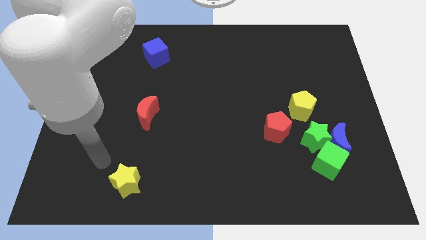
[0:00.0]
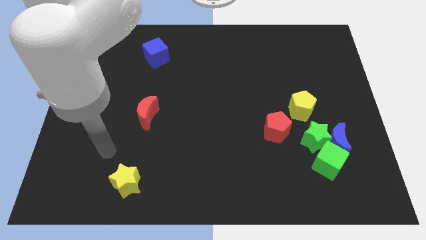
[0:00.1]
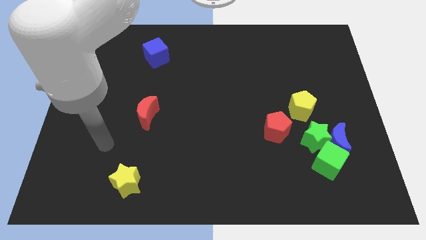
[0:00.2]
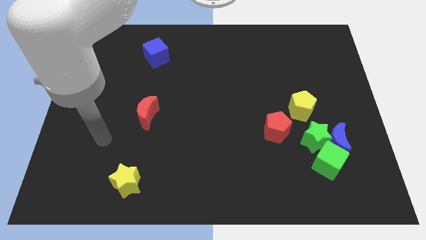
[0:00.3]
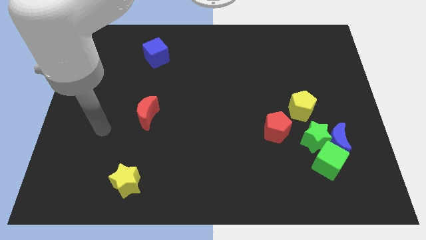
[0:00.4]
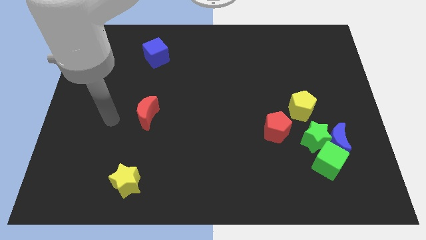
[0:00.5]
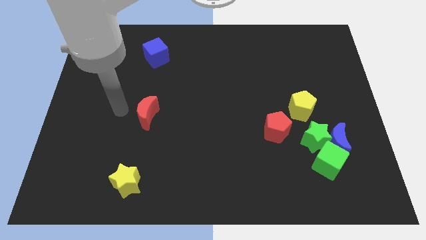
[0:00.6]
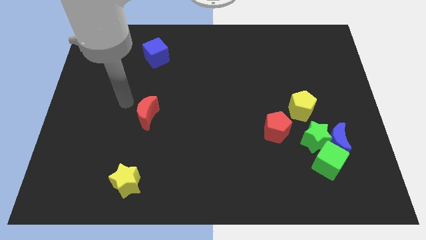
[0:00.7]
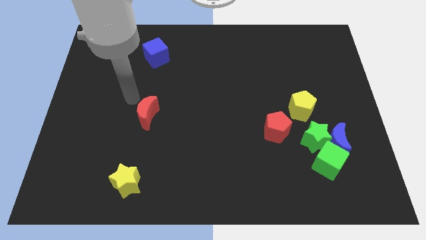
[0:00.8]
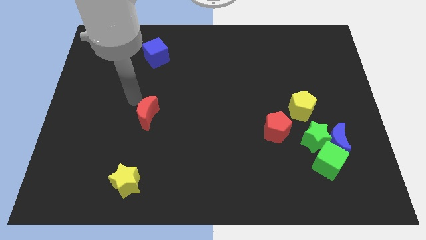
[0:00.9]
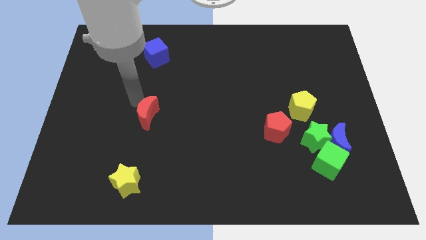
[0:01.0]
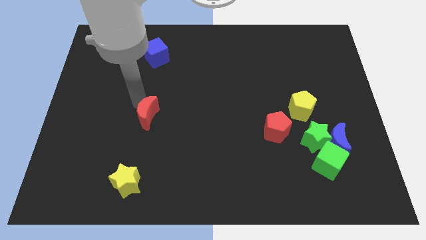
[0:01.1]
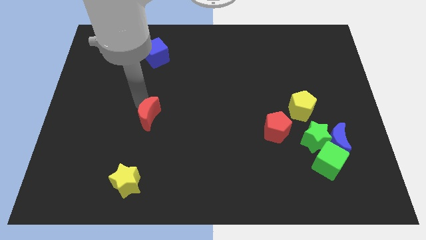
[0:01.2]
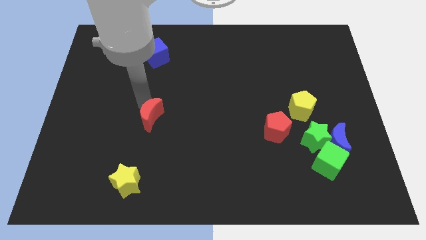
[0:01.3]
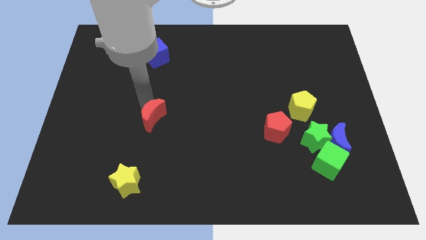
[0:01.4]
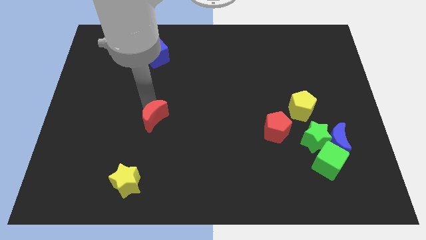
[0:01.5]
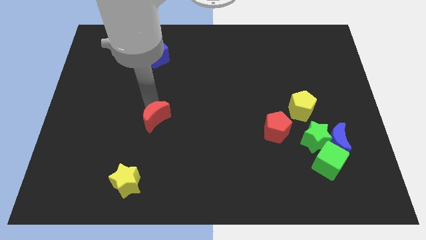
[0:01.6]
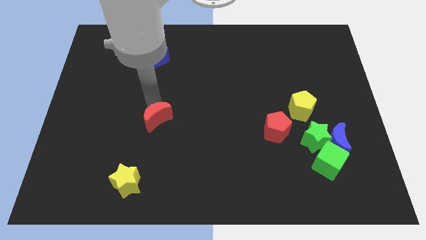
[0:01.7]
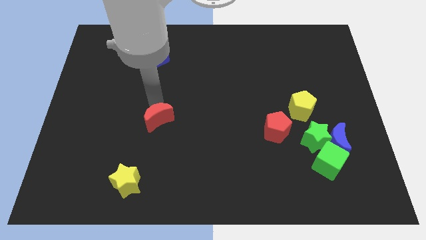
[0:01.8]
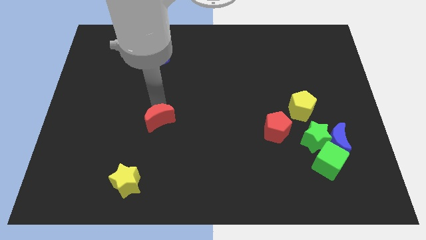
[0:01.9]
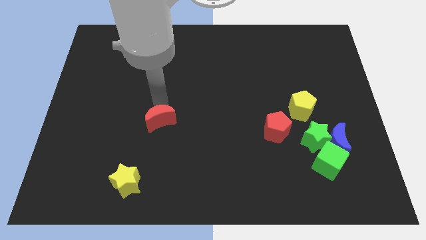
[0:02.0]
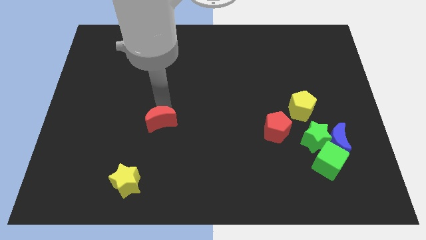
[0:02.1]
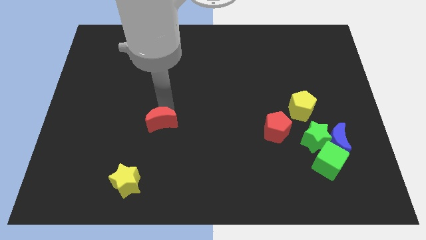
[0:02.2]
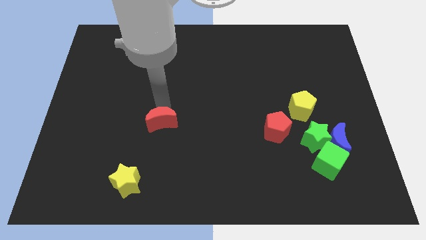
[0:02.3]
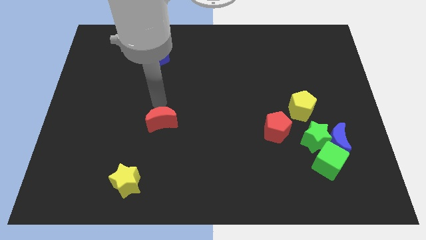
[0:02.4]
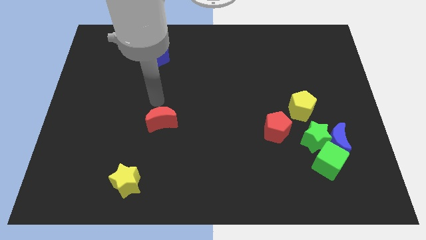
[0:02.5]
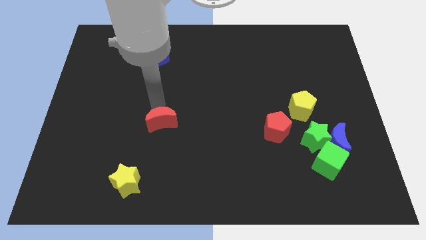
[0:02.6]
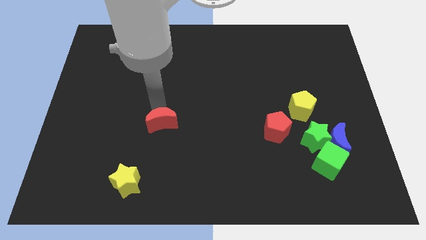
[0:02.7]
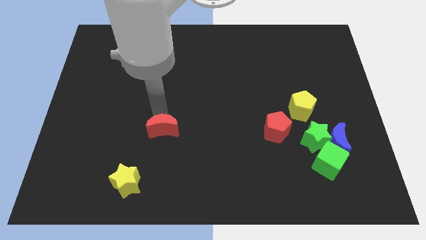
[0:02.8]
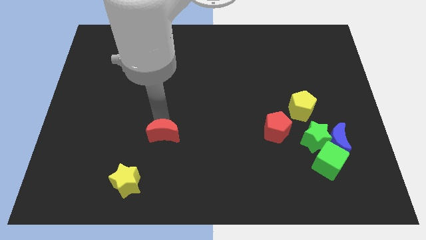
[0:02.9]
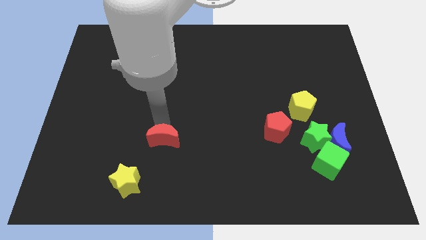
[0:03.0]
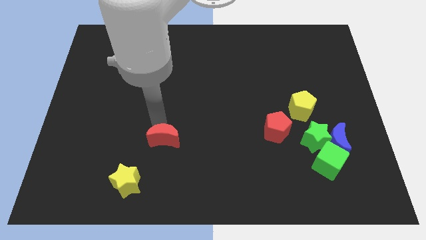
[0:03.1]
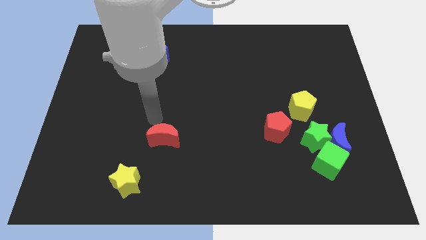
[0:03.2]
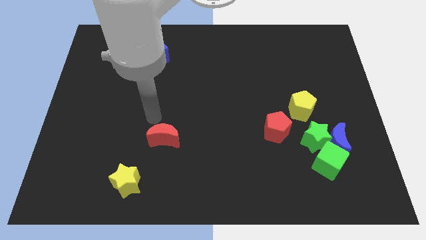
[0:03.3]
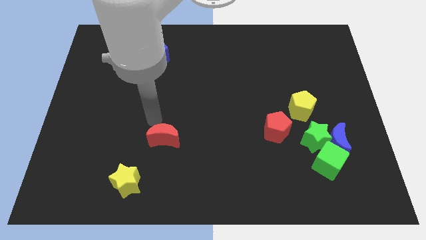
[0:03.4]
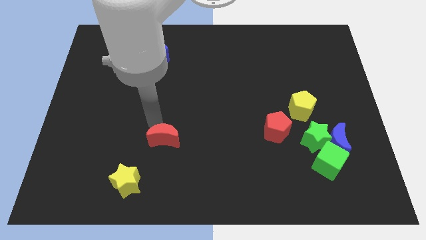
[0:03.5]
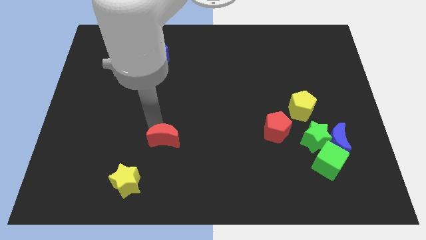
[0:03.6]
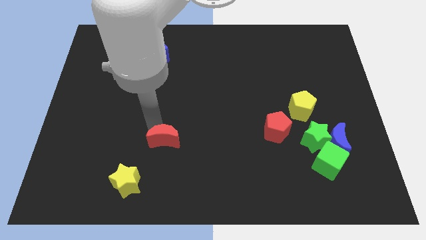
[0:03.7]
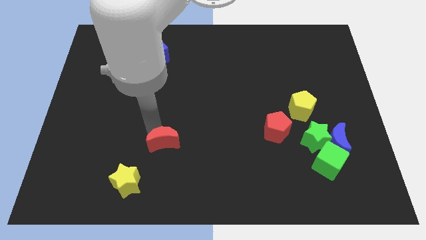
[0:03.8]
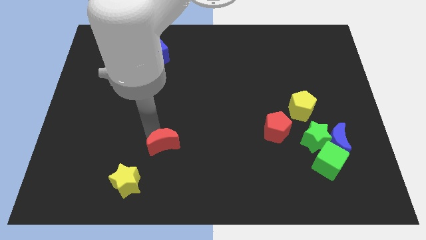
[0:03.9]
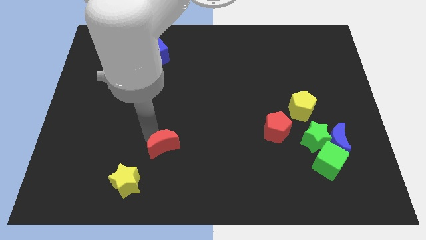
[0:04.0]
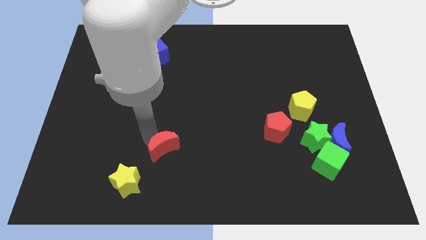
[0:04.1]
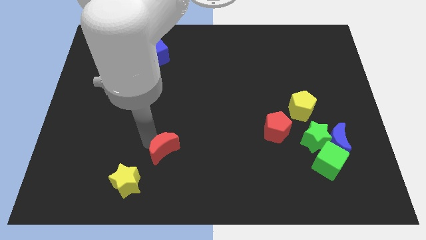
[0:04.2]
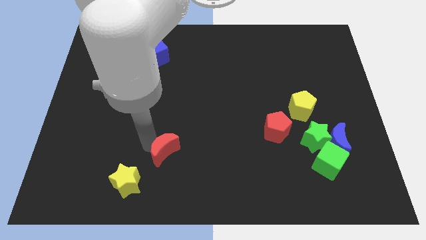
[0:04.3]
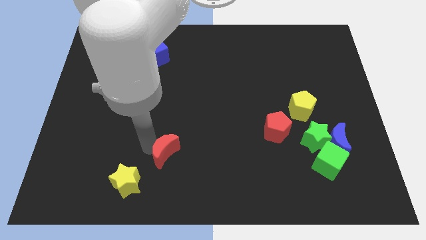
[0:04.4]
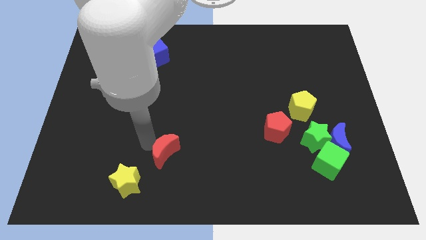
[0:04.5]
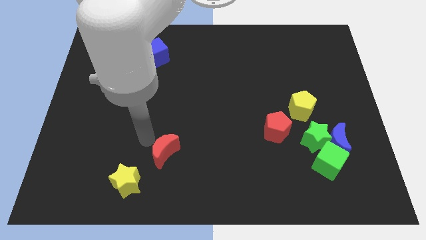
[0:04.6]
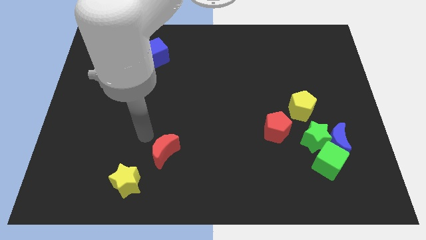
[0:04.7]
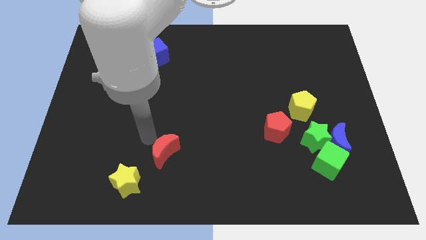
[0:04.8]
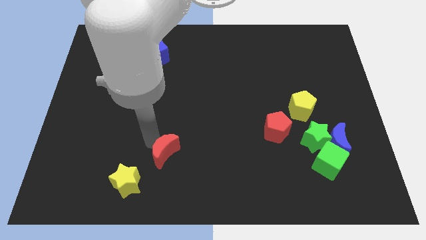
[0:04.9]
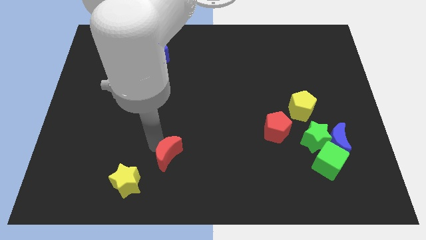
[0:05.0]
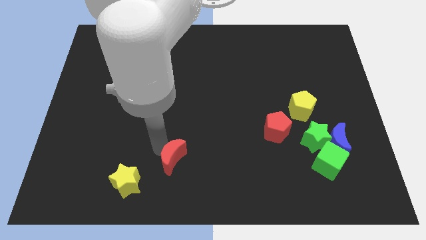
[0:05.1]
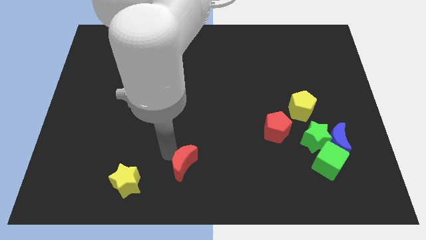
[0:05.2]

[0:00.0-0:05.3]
move the red moon to the bottom side

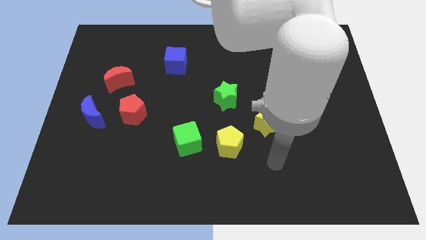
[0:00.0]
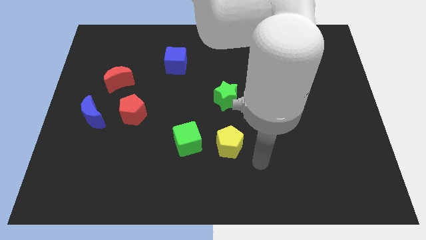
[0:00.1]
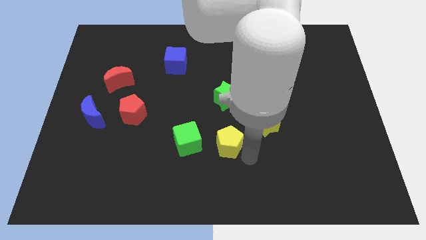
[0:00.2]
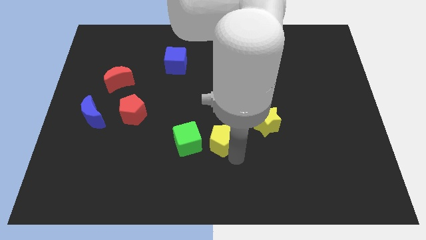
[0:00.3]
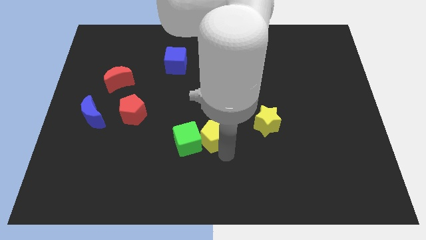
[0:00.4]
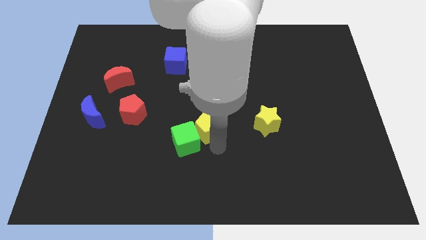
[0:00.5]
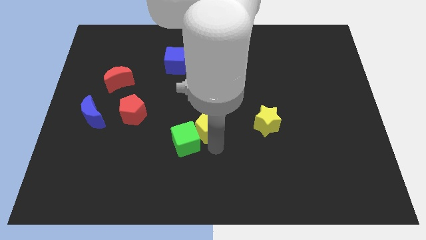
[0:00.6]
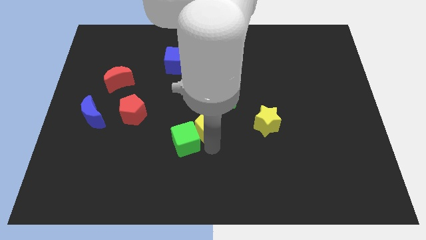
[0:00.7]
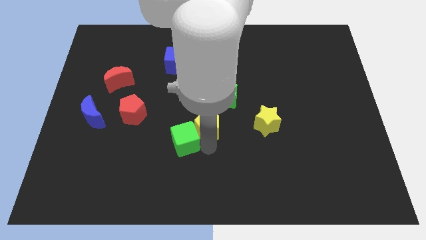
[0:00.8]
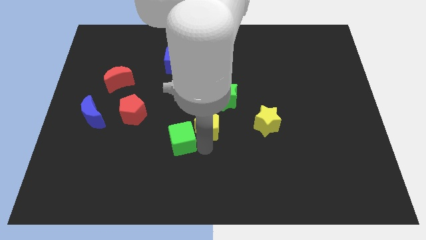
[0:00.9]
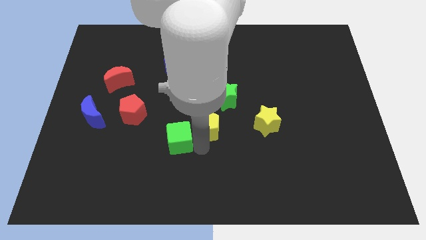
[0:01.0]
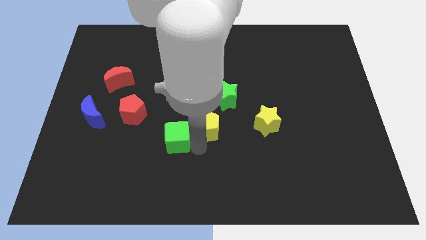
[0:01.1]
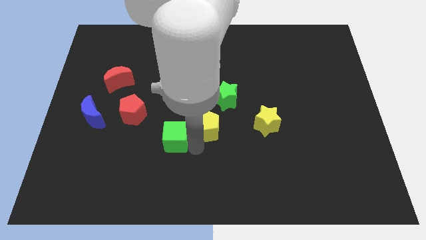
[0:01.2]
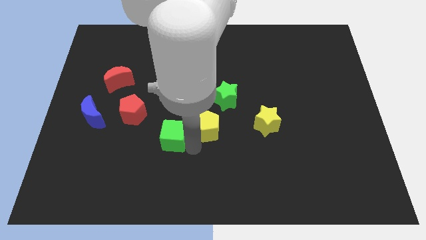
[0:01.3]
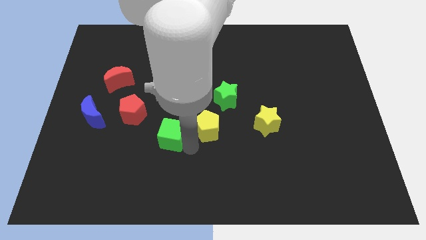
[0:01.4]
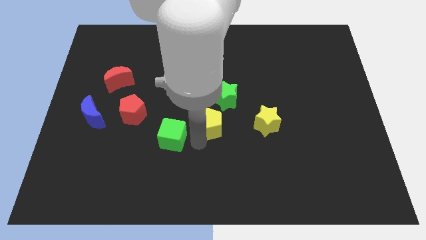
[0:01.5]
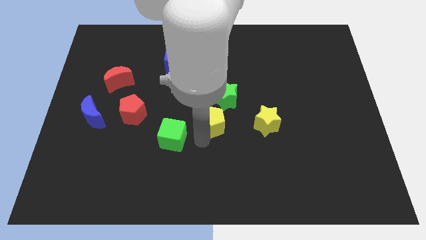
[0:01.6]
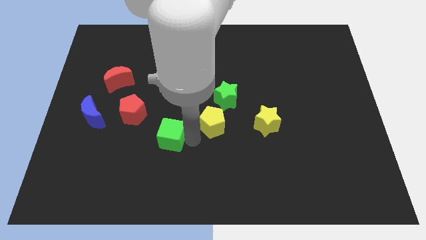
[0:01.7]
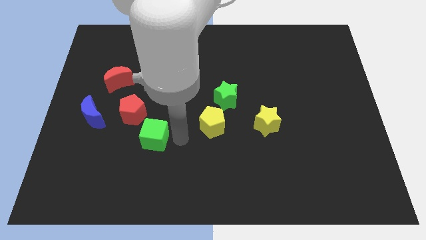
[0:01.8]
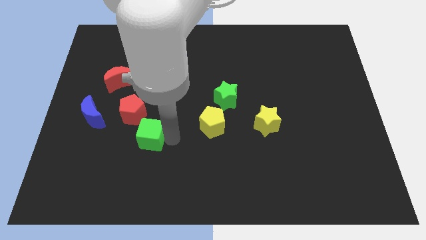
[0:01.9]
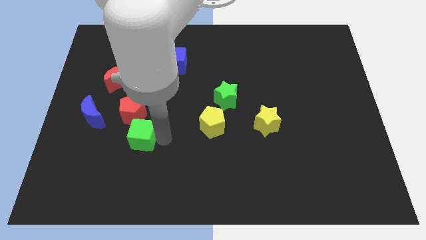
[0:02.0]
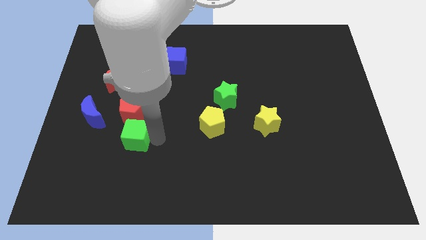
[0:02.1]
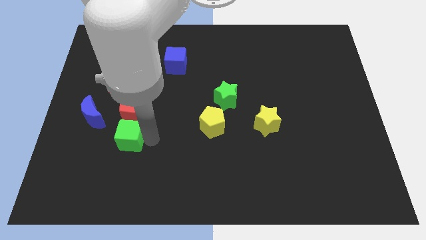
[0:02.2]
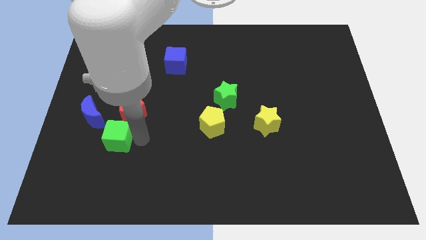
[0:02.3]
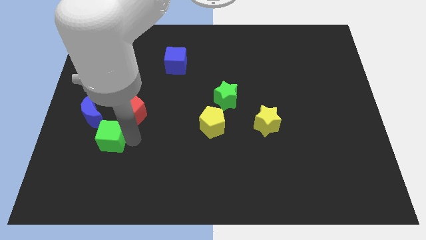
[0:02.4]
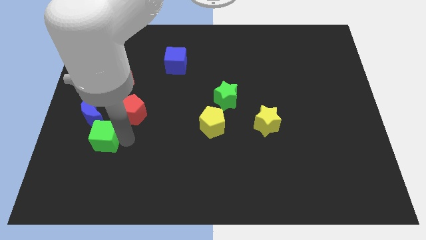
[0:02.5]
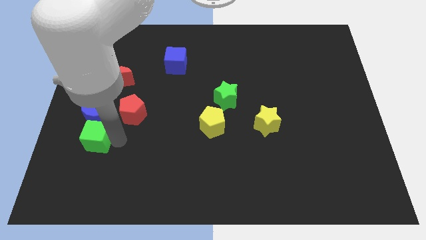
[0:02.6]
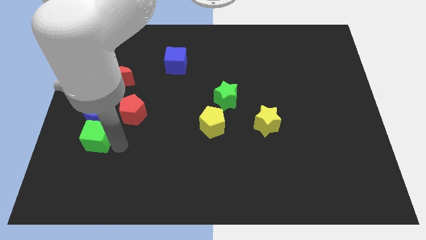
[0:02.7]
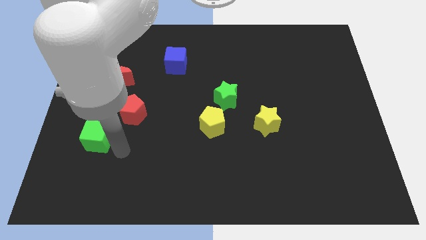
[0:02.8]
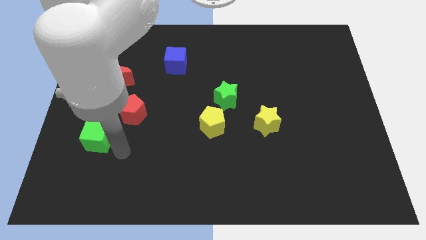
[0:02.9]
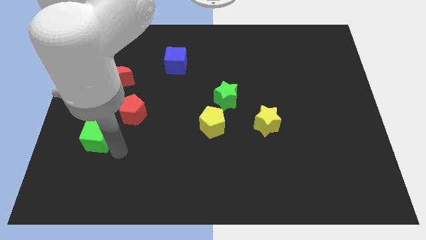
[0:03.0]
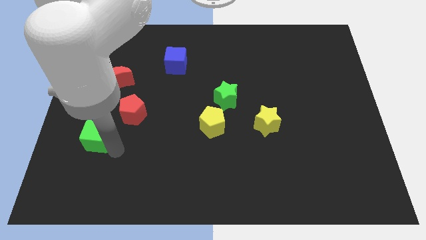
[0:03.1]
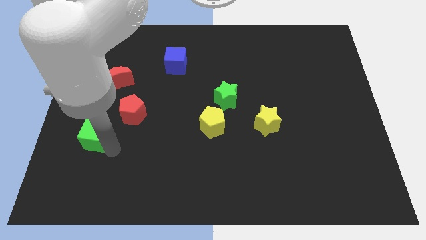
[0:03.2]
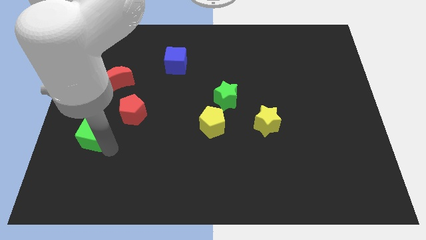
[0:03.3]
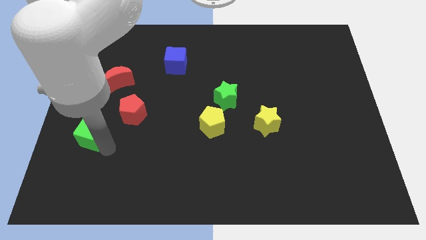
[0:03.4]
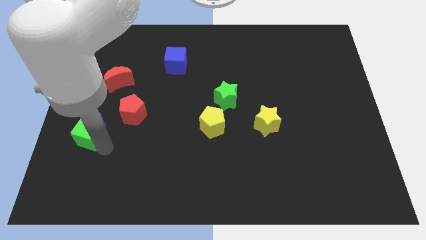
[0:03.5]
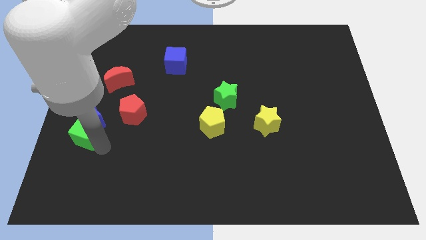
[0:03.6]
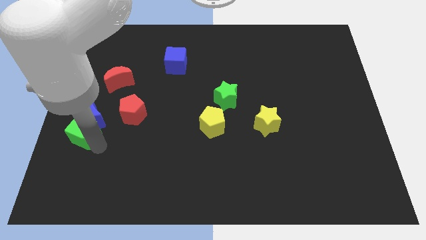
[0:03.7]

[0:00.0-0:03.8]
move the green cube to the center left
